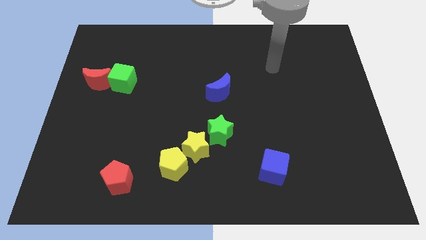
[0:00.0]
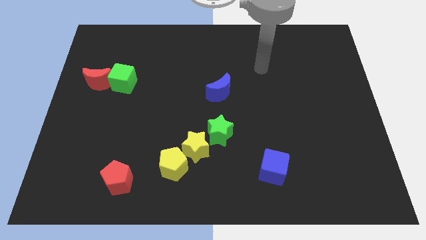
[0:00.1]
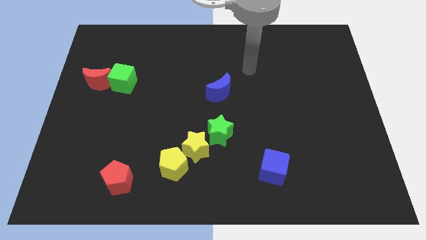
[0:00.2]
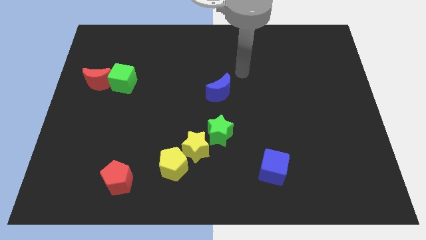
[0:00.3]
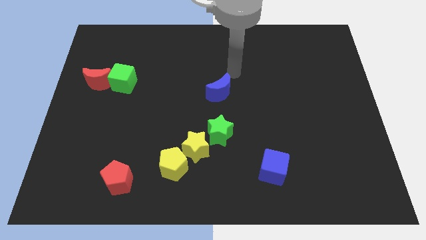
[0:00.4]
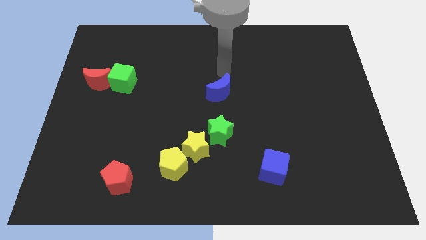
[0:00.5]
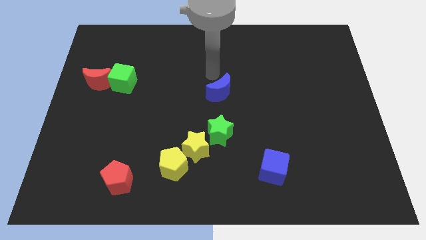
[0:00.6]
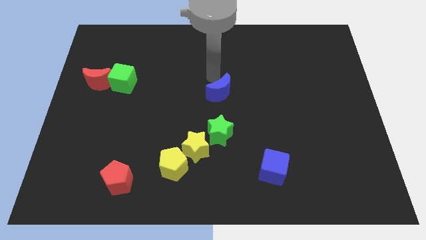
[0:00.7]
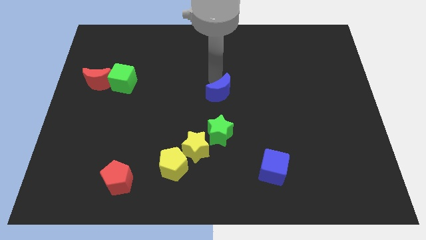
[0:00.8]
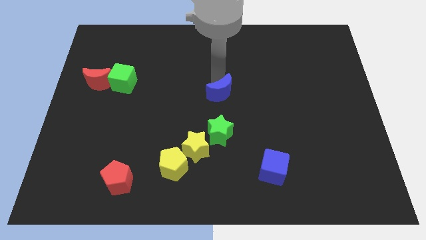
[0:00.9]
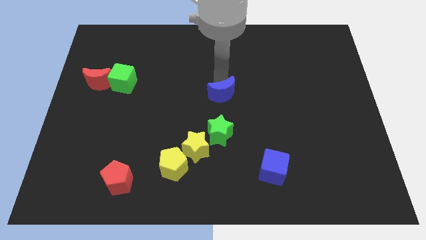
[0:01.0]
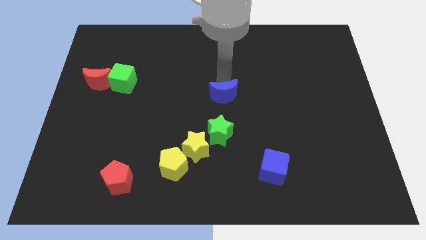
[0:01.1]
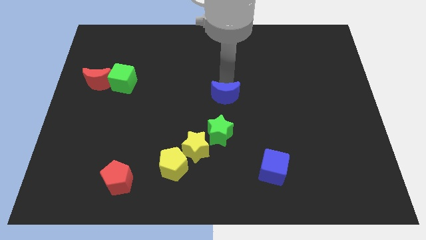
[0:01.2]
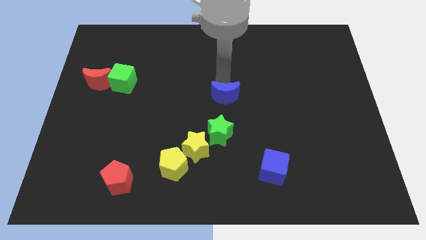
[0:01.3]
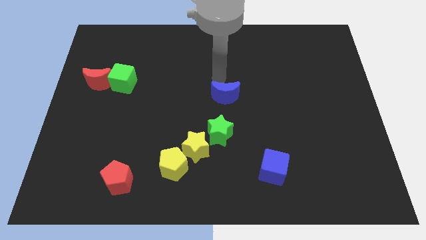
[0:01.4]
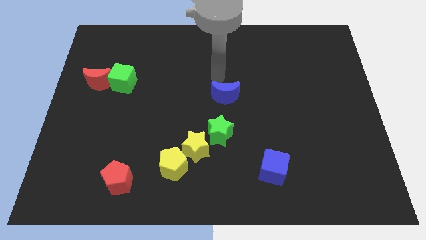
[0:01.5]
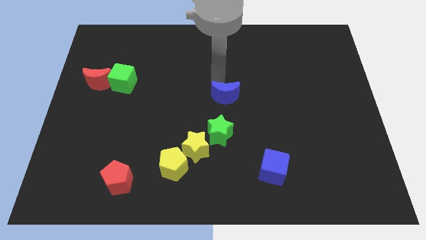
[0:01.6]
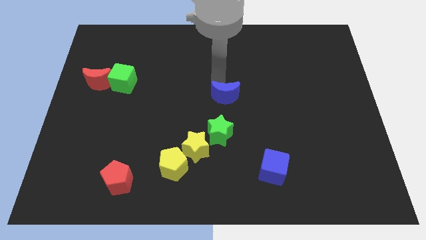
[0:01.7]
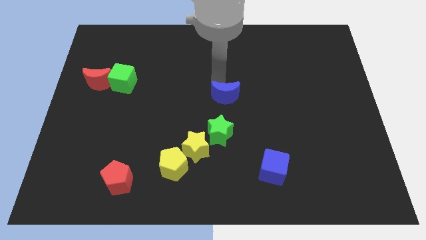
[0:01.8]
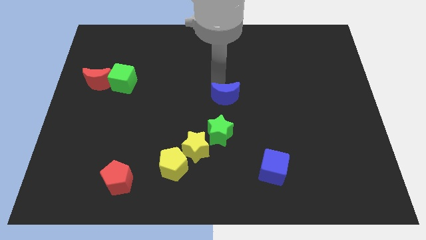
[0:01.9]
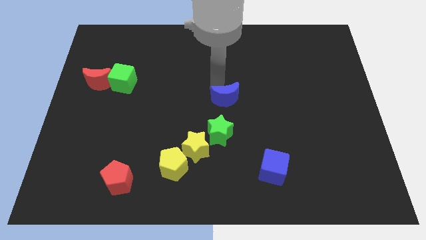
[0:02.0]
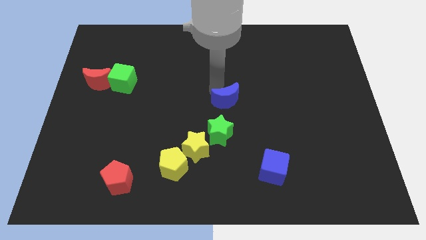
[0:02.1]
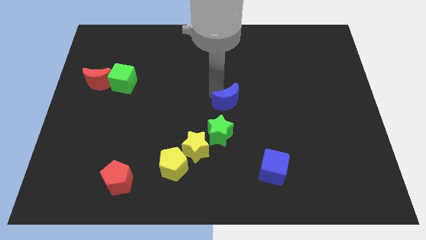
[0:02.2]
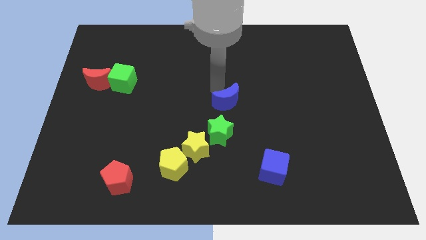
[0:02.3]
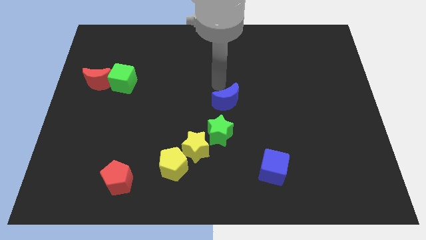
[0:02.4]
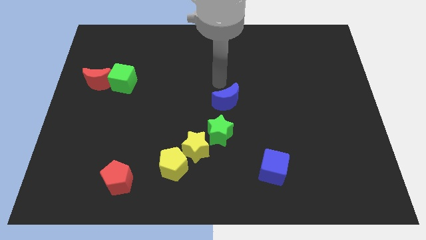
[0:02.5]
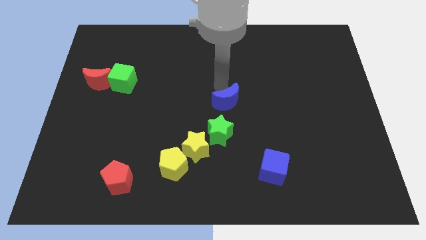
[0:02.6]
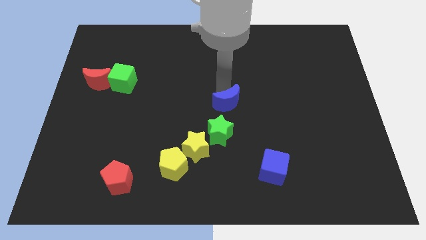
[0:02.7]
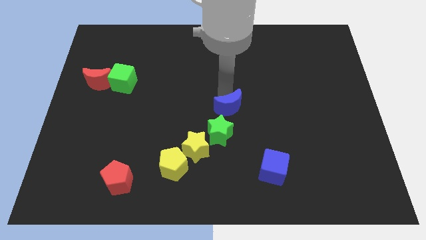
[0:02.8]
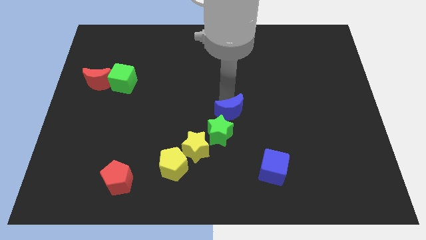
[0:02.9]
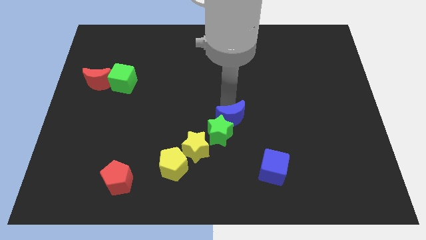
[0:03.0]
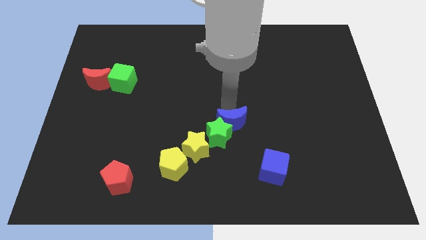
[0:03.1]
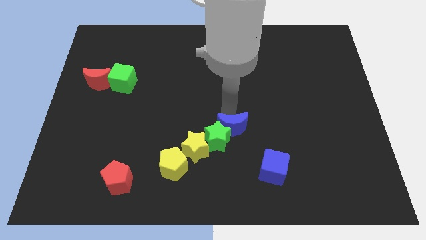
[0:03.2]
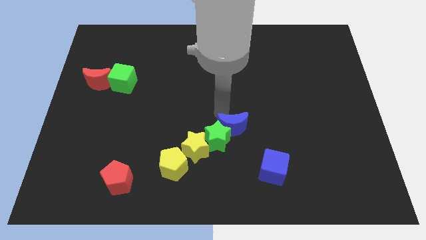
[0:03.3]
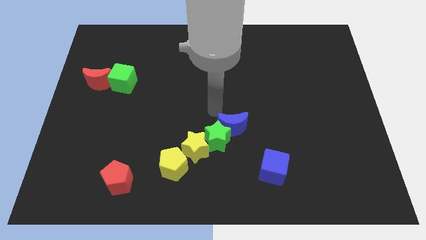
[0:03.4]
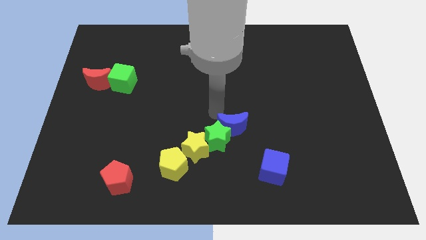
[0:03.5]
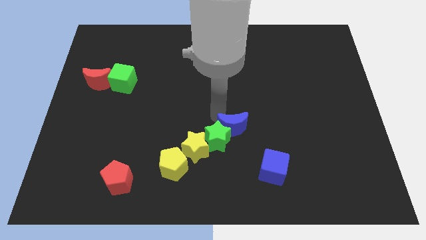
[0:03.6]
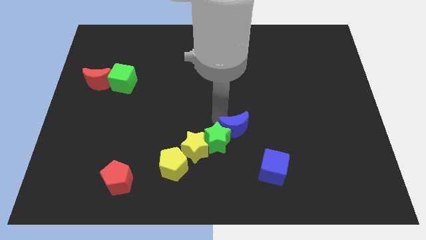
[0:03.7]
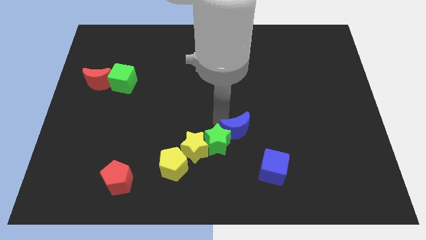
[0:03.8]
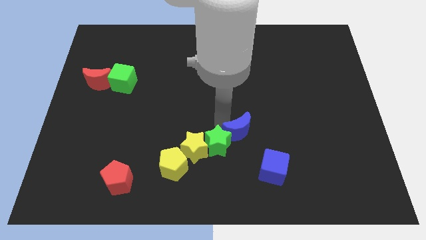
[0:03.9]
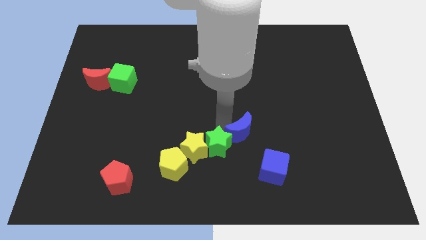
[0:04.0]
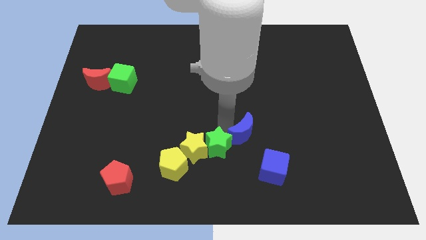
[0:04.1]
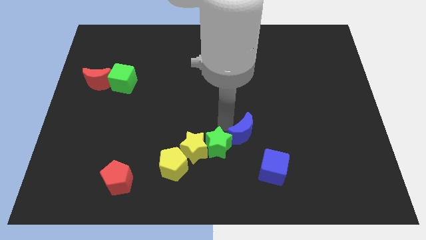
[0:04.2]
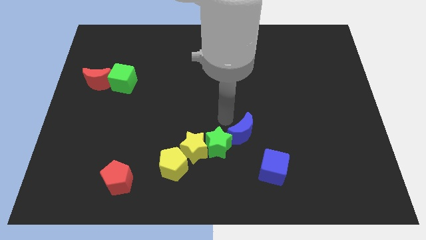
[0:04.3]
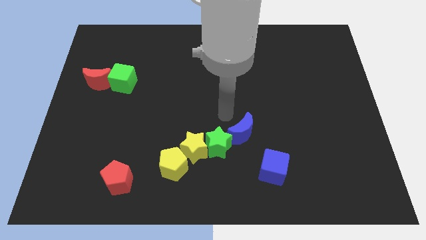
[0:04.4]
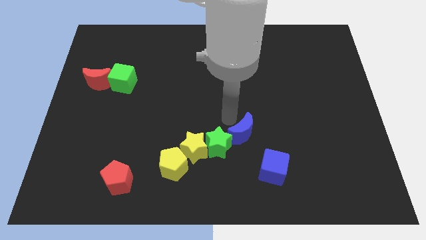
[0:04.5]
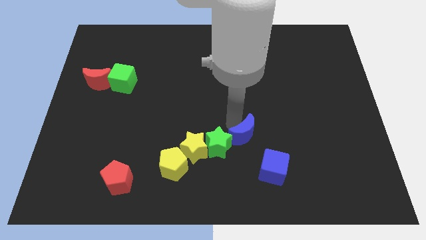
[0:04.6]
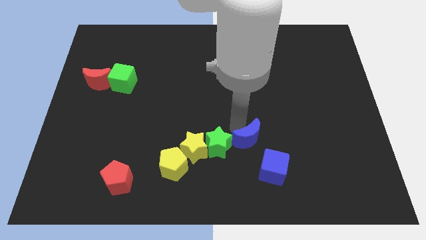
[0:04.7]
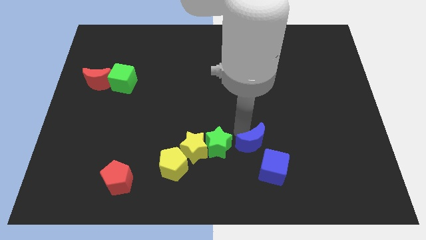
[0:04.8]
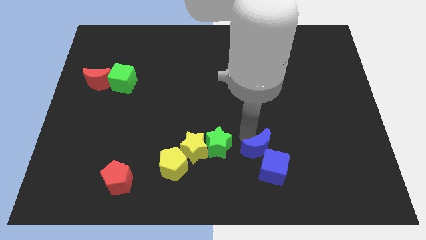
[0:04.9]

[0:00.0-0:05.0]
put the blue moon close to the blue cube

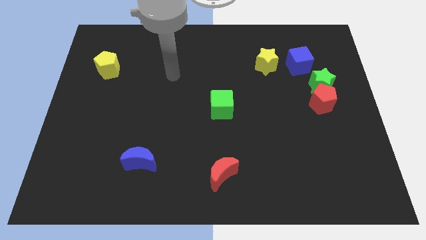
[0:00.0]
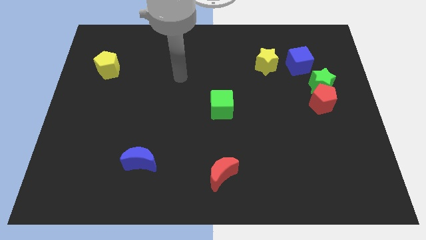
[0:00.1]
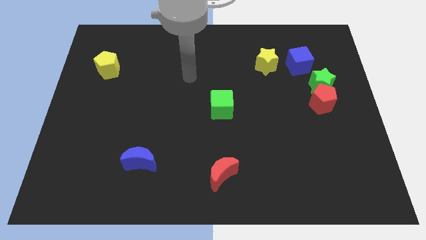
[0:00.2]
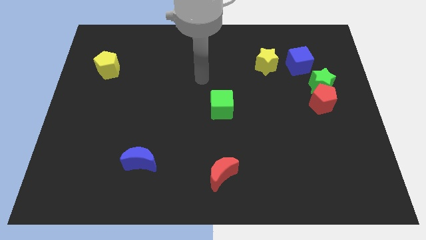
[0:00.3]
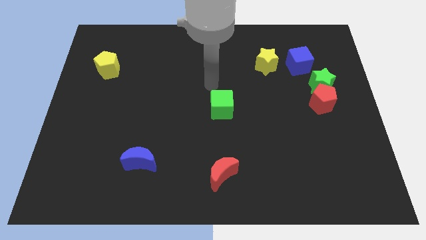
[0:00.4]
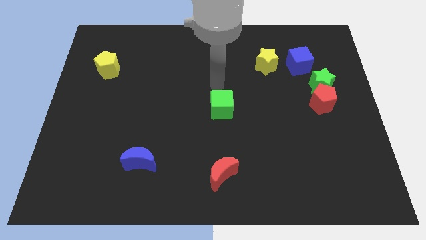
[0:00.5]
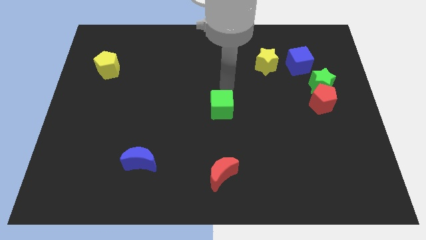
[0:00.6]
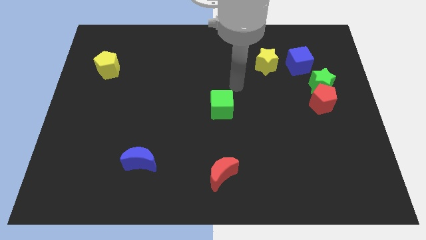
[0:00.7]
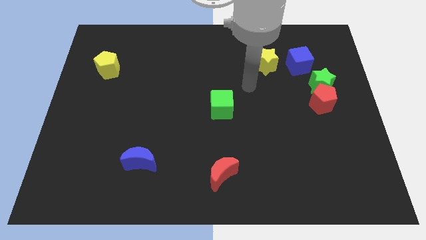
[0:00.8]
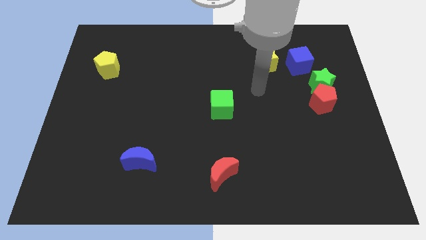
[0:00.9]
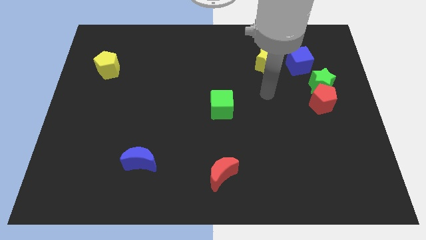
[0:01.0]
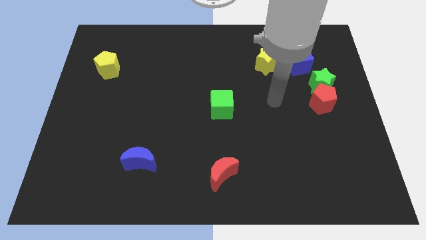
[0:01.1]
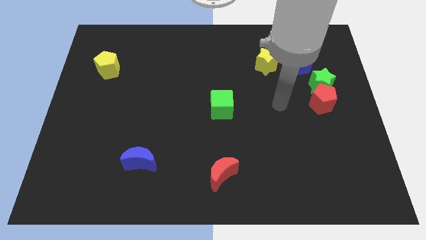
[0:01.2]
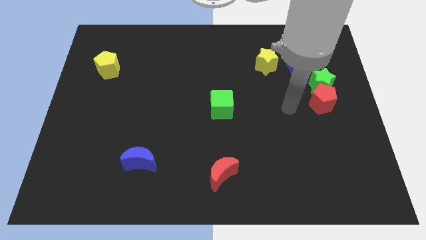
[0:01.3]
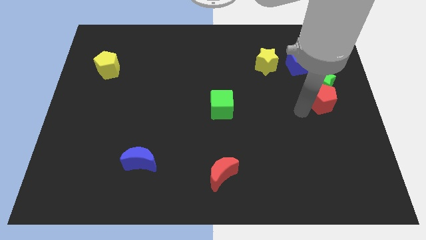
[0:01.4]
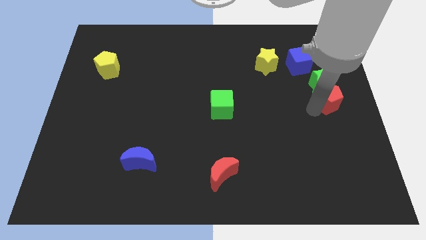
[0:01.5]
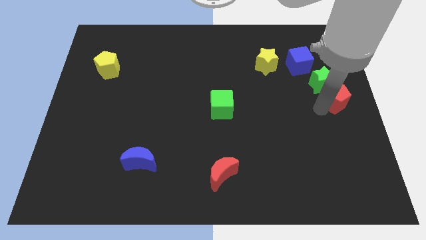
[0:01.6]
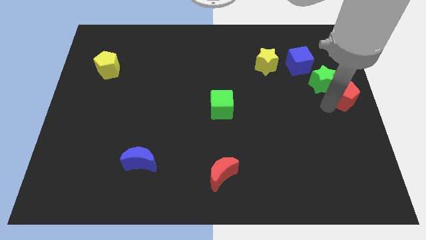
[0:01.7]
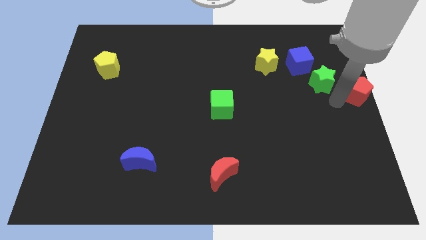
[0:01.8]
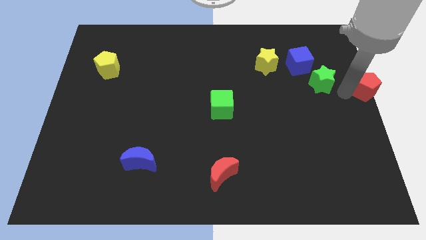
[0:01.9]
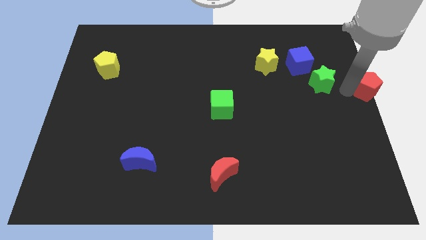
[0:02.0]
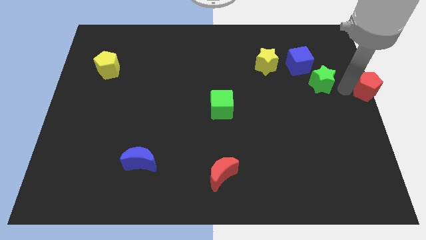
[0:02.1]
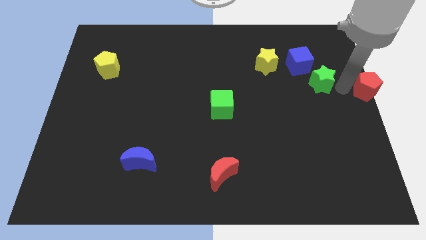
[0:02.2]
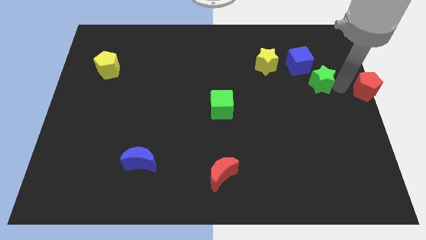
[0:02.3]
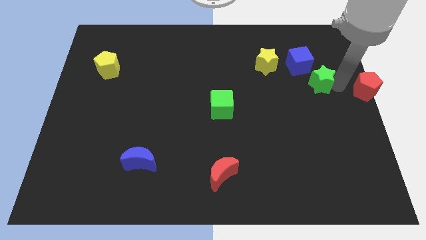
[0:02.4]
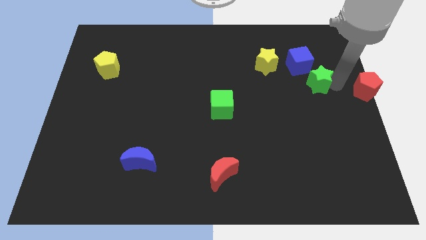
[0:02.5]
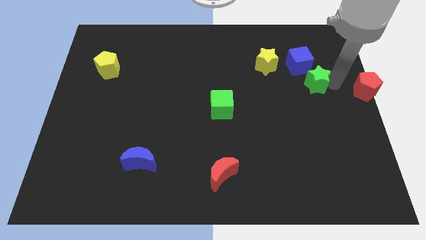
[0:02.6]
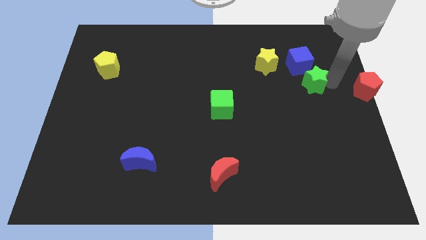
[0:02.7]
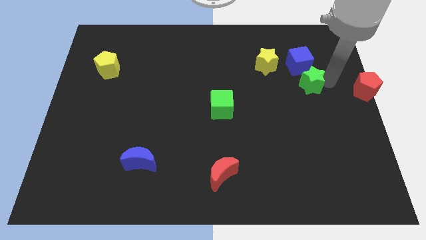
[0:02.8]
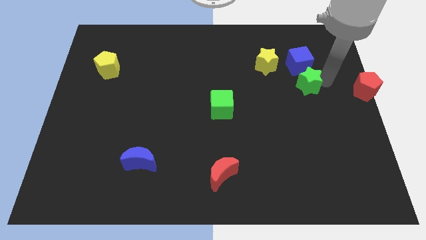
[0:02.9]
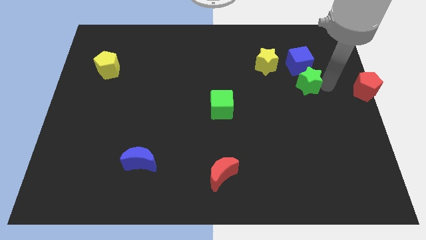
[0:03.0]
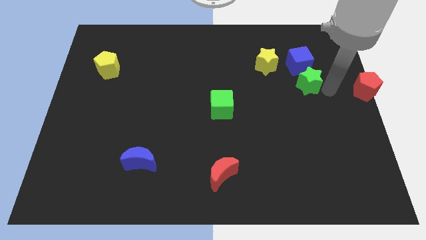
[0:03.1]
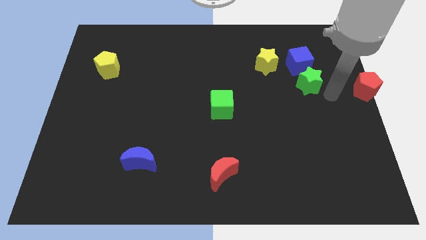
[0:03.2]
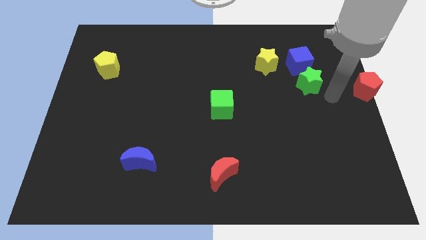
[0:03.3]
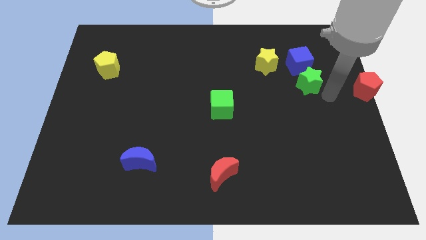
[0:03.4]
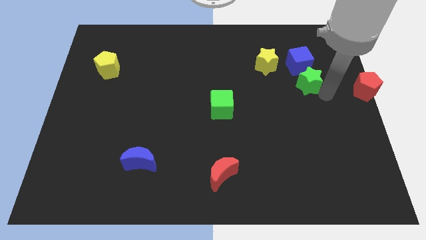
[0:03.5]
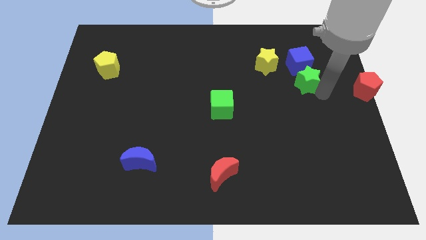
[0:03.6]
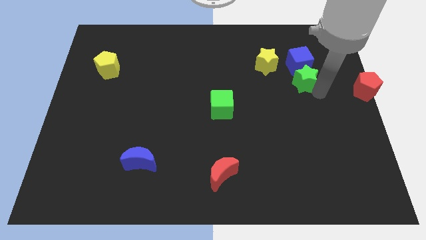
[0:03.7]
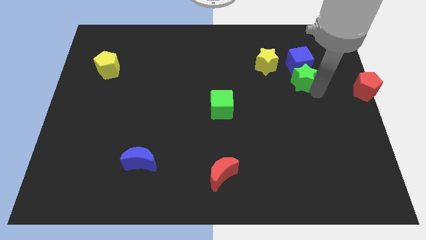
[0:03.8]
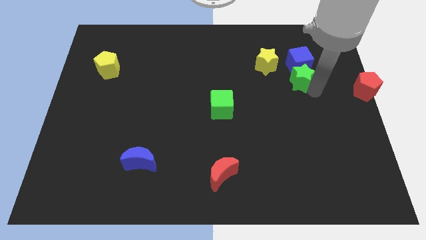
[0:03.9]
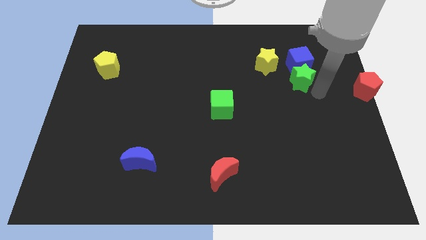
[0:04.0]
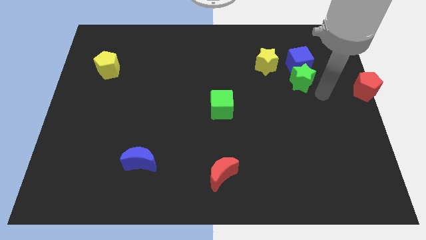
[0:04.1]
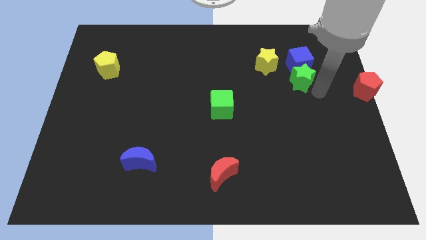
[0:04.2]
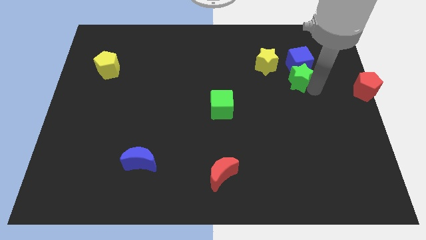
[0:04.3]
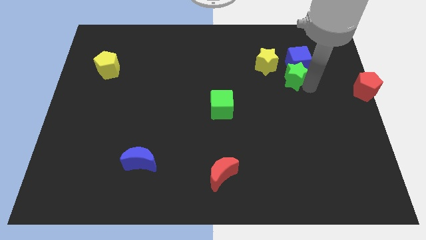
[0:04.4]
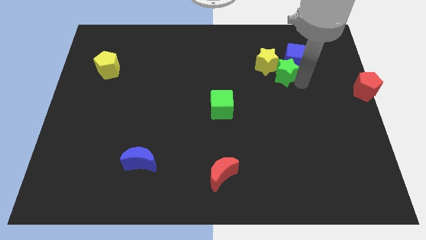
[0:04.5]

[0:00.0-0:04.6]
slide the green star towards the yellow star
